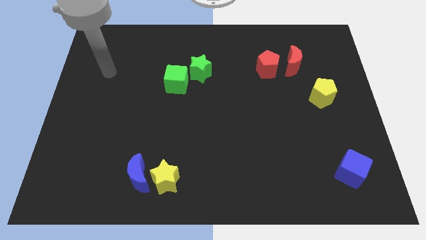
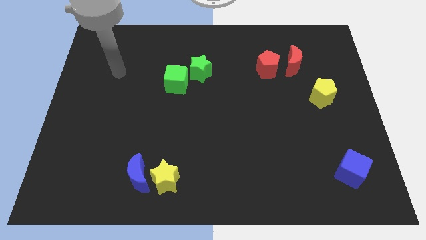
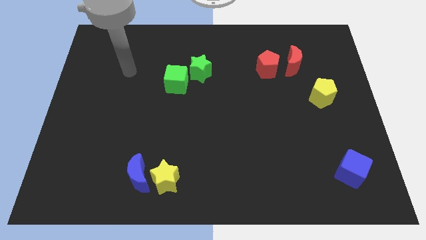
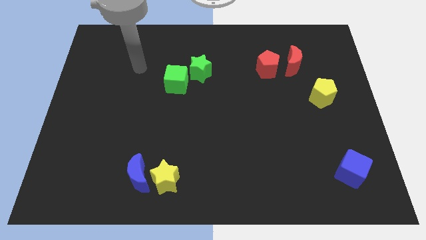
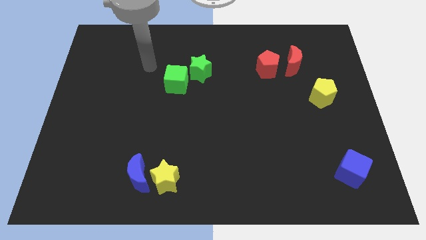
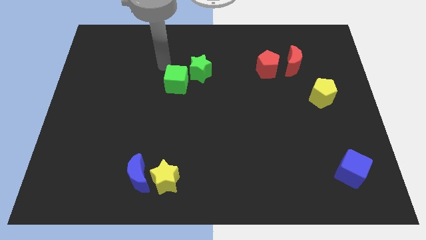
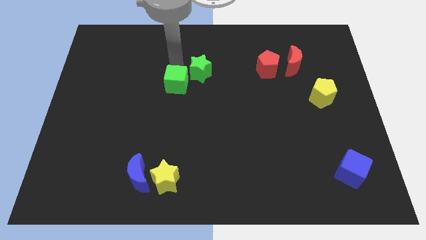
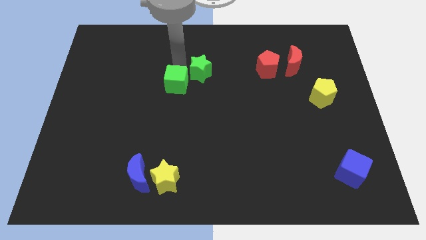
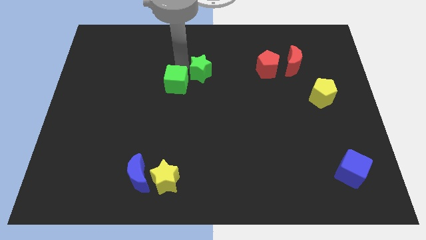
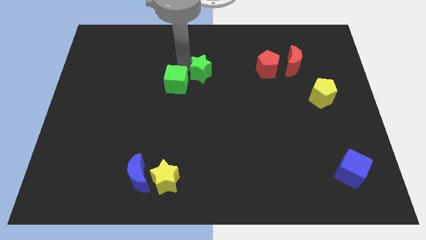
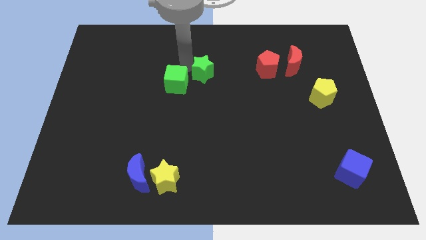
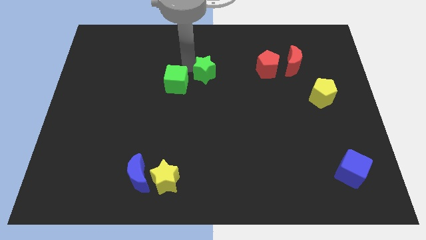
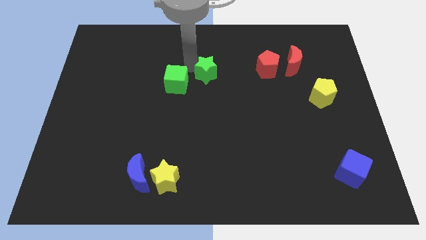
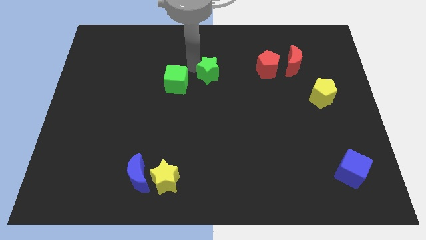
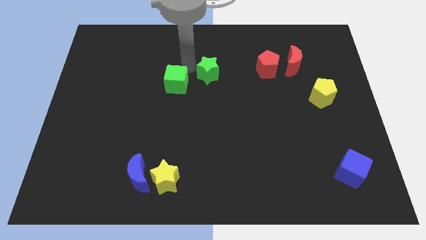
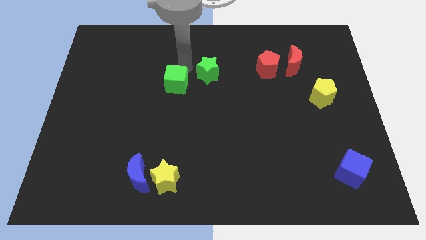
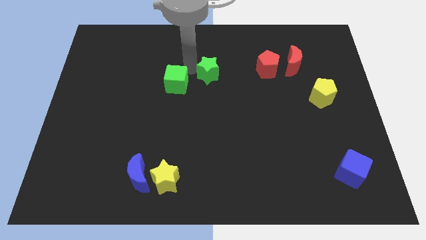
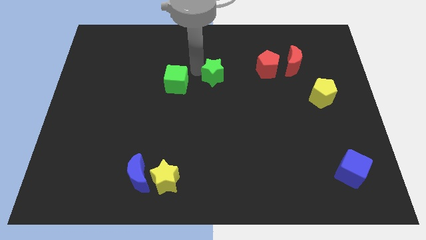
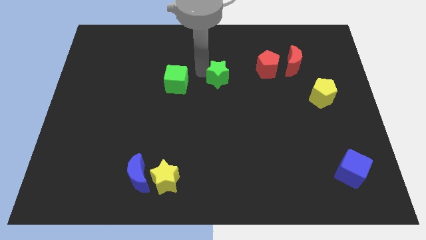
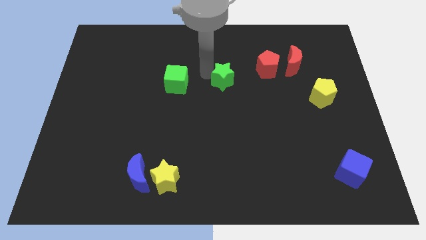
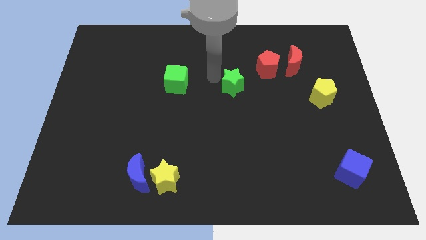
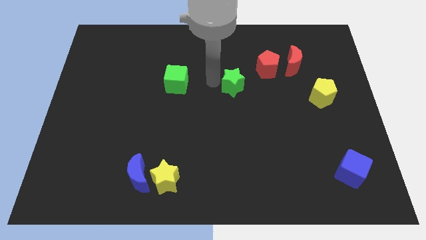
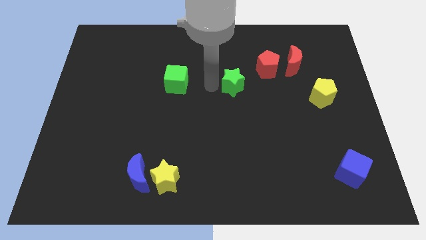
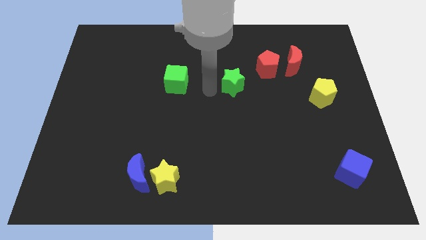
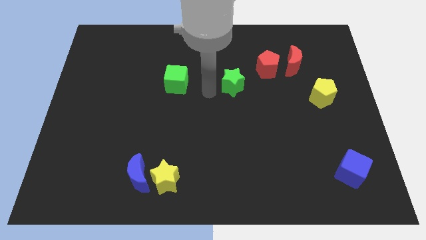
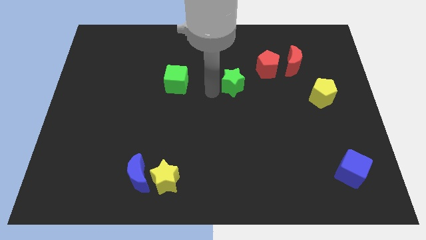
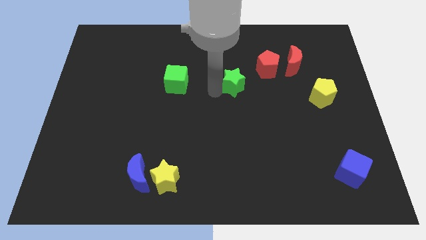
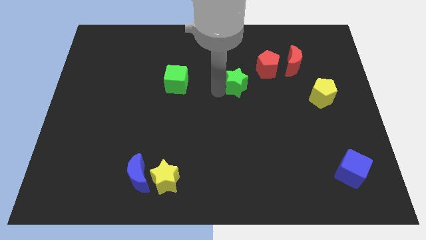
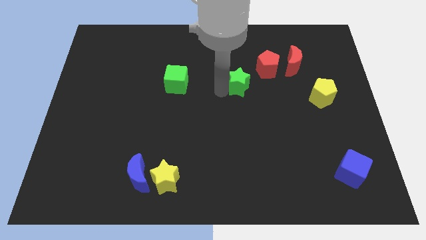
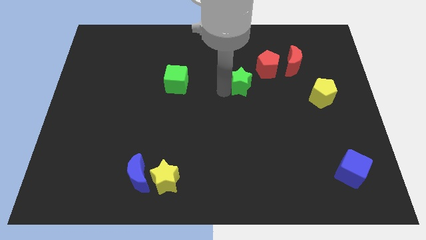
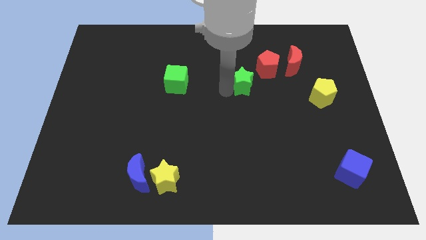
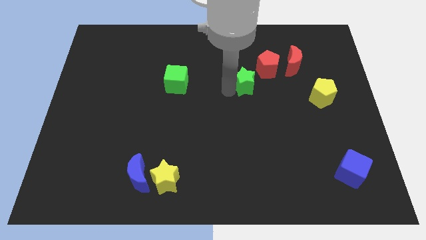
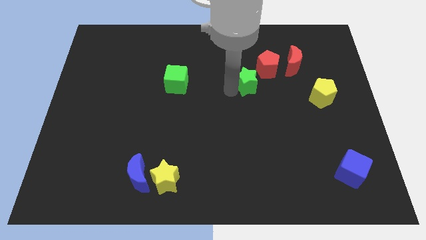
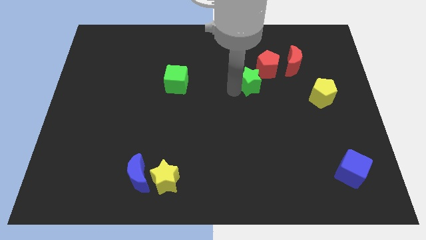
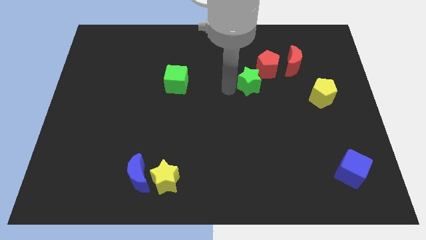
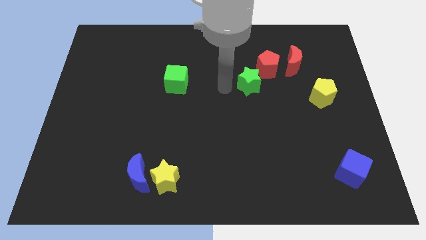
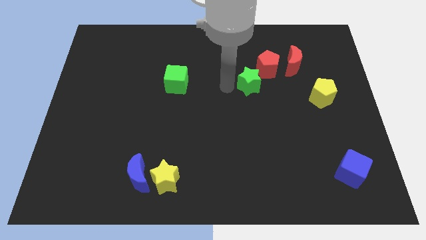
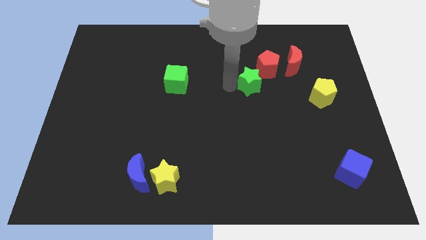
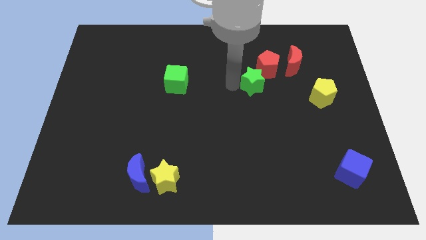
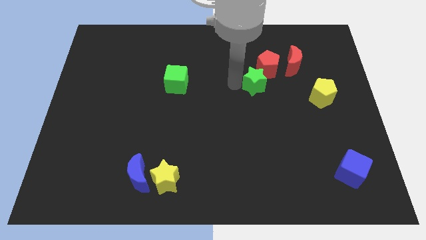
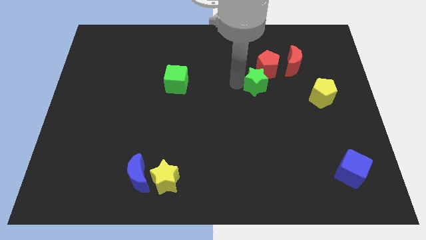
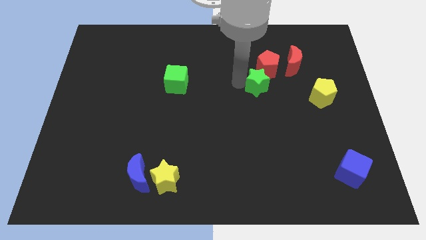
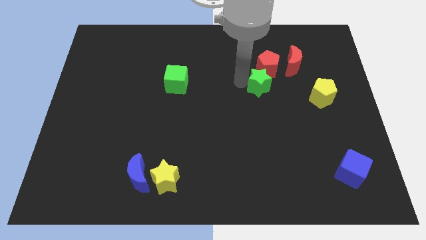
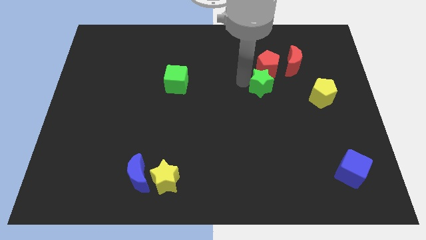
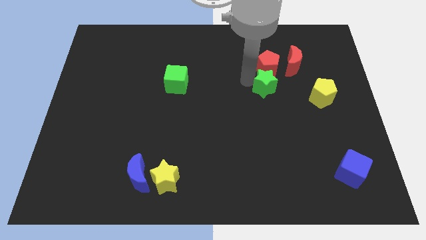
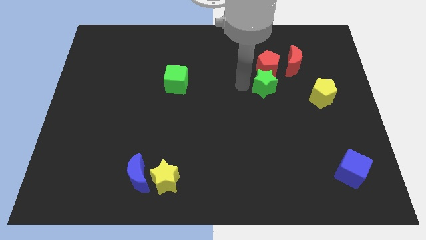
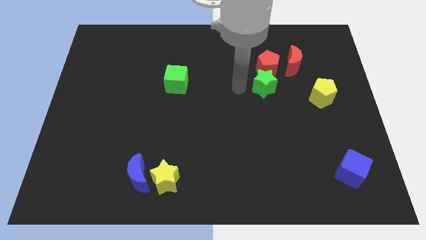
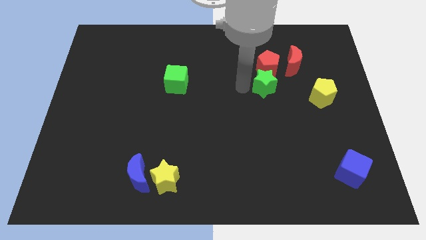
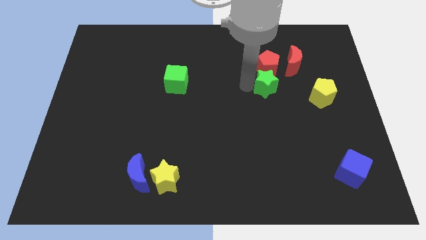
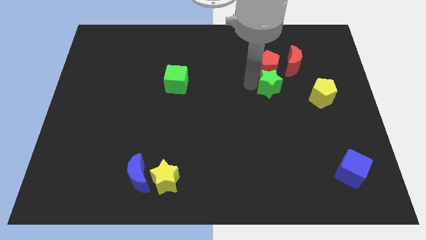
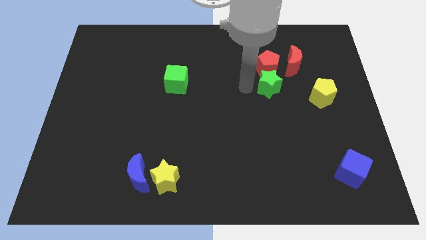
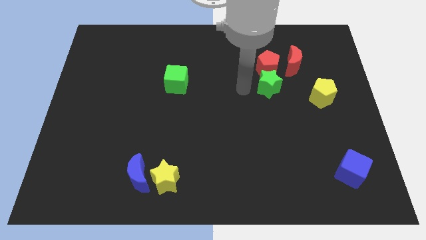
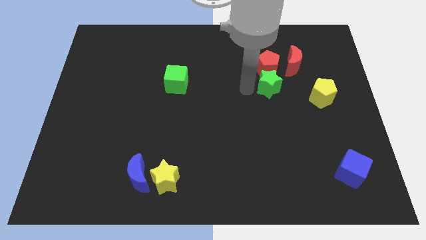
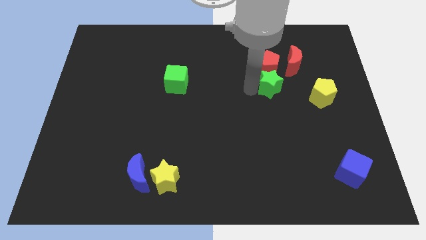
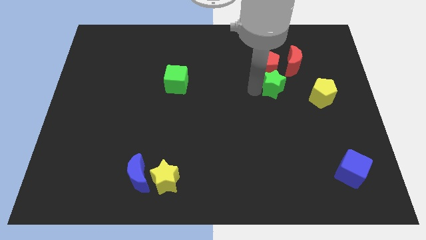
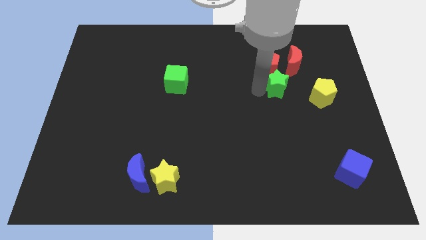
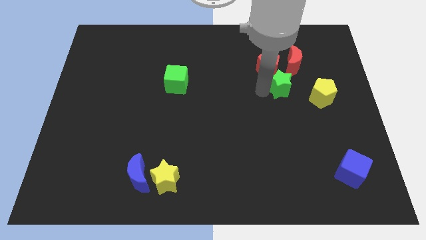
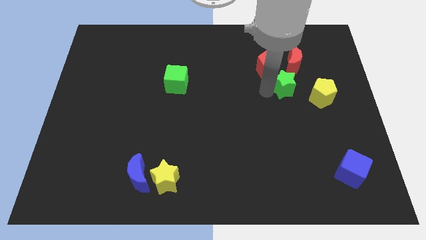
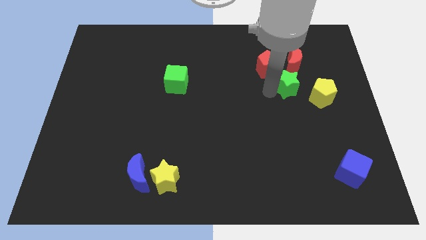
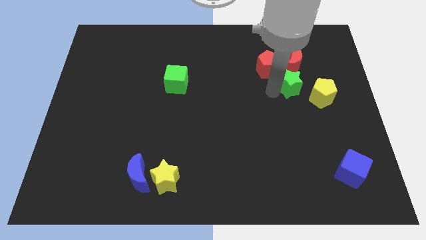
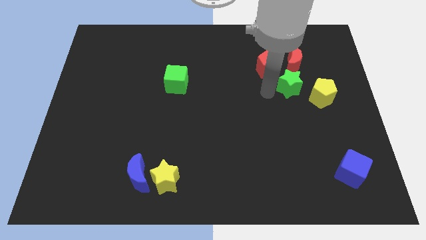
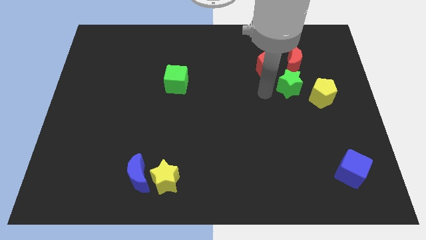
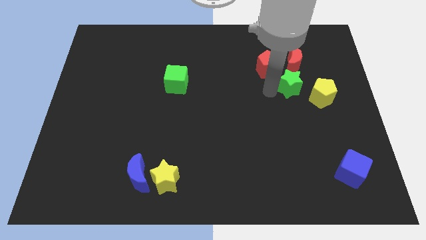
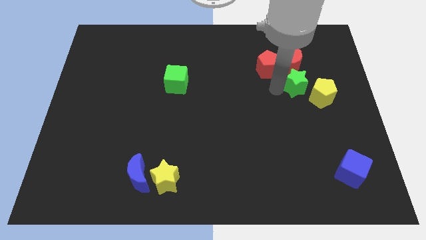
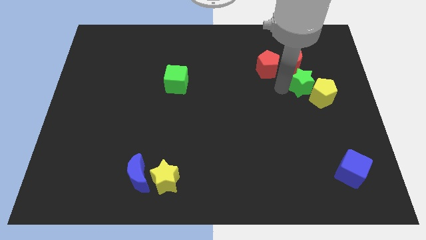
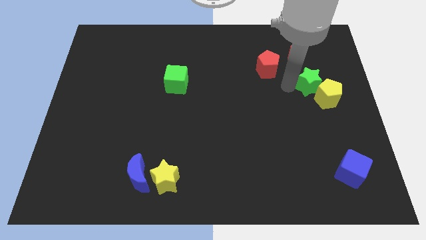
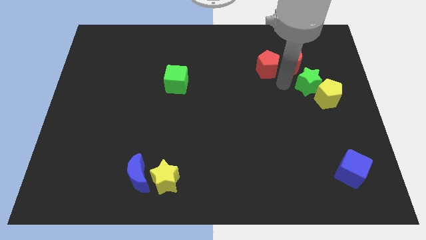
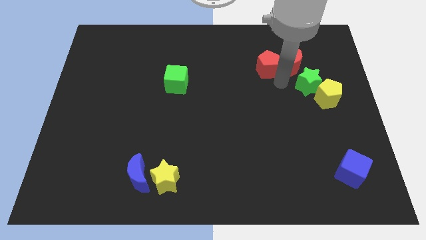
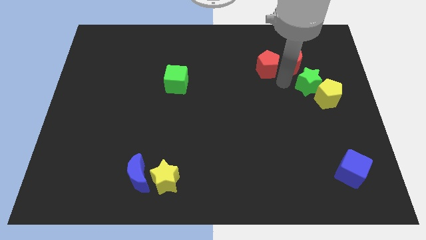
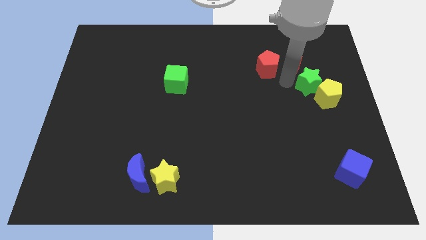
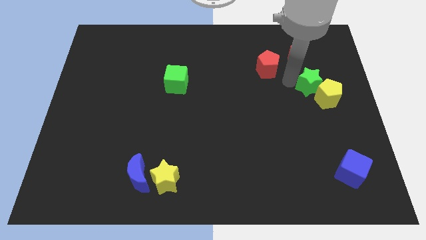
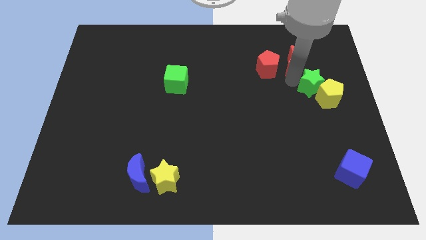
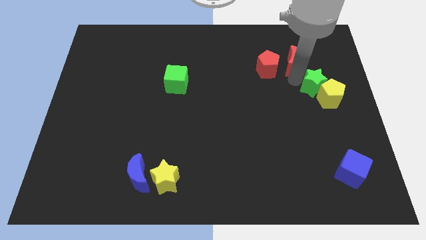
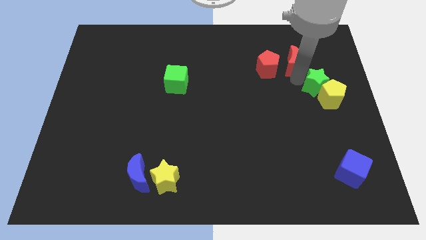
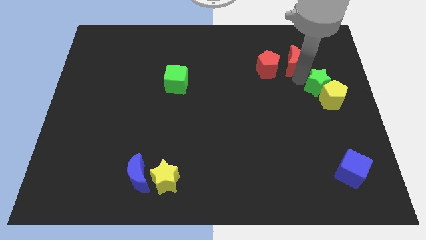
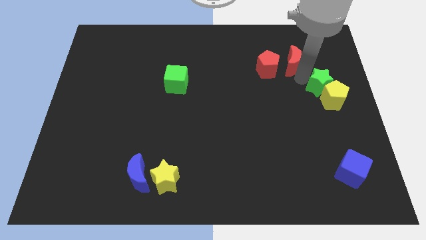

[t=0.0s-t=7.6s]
move the green star to the center right
